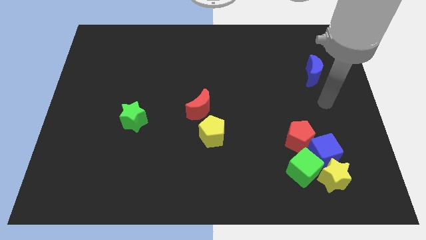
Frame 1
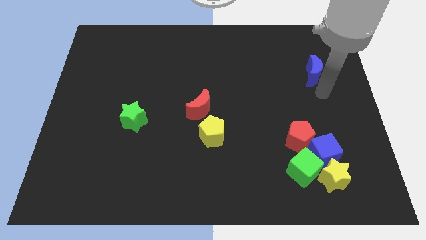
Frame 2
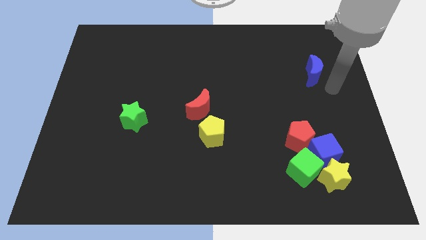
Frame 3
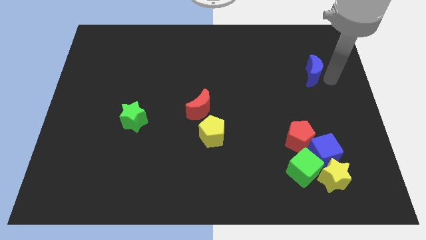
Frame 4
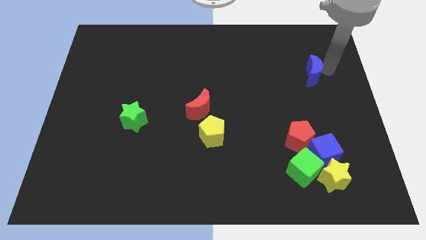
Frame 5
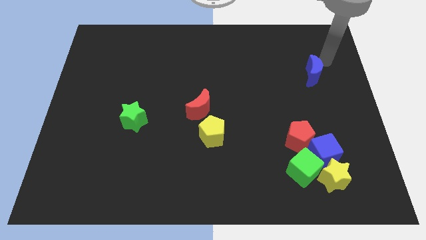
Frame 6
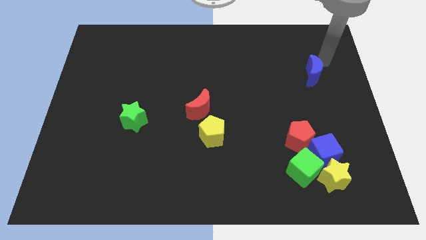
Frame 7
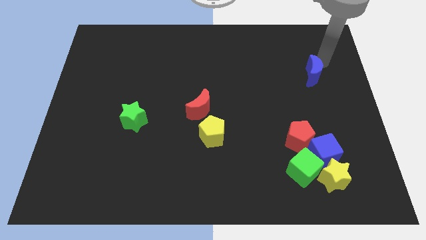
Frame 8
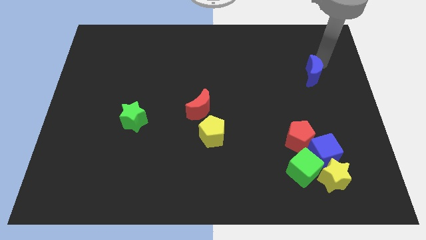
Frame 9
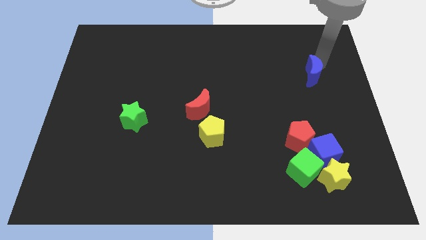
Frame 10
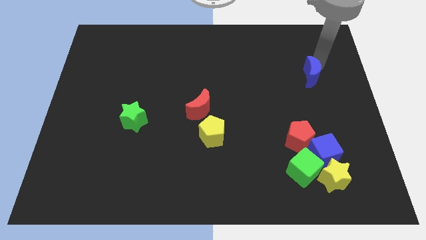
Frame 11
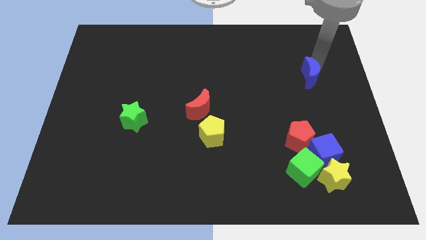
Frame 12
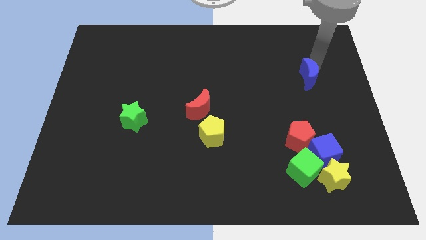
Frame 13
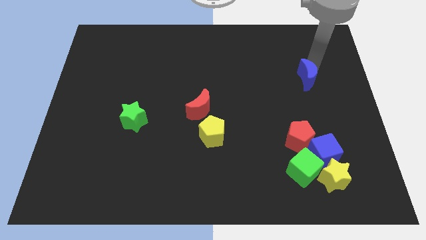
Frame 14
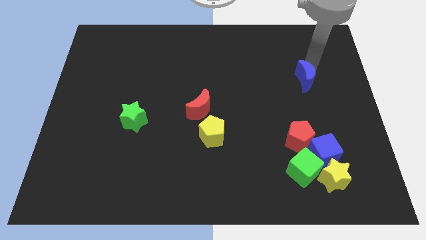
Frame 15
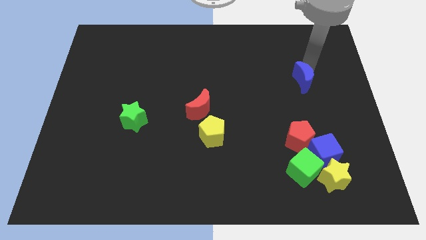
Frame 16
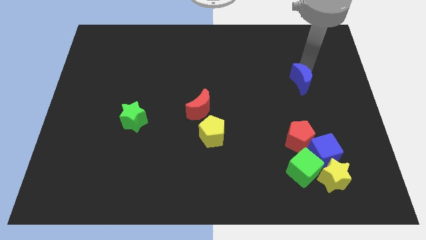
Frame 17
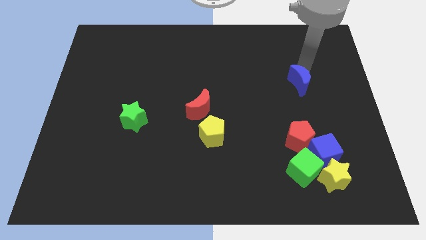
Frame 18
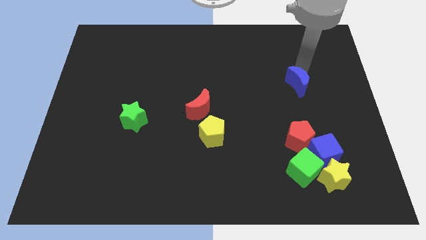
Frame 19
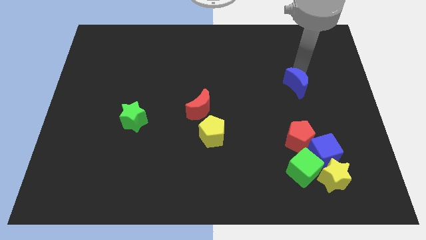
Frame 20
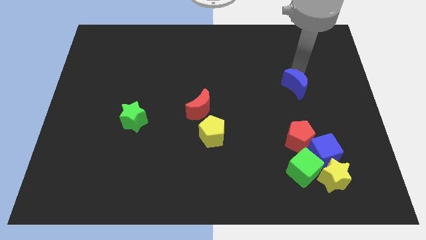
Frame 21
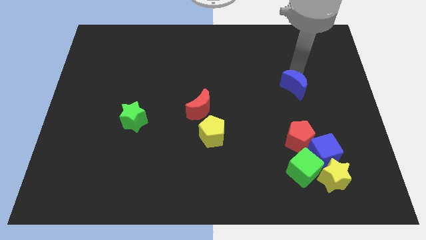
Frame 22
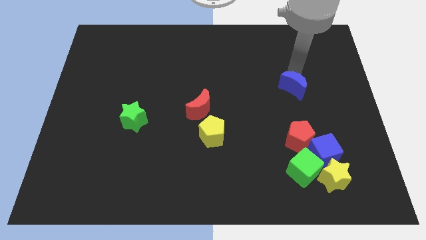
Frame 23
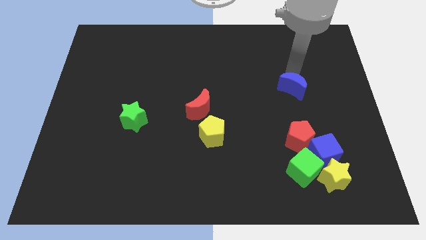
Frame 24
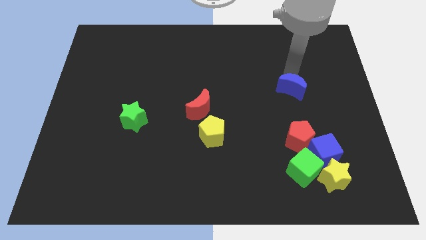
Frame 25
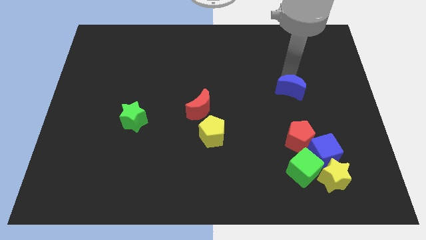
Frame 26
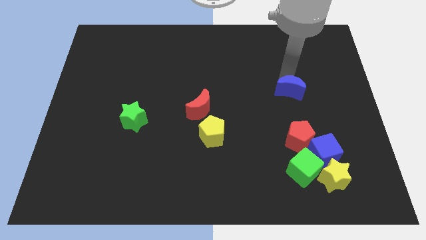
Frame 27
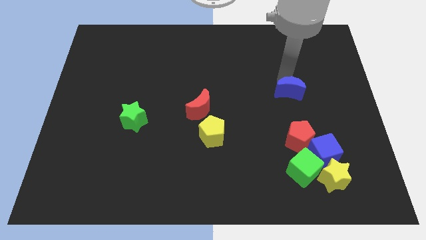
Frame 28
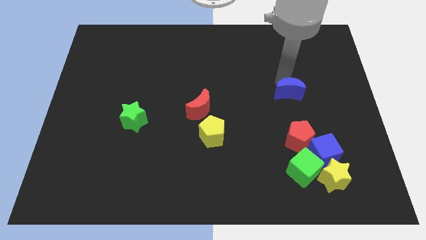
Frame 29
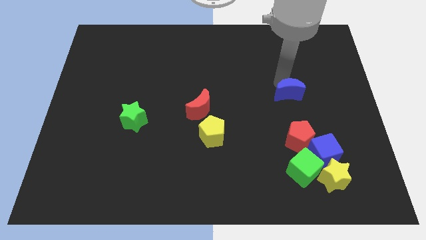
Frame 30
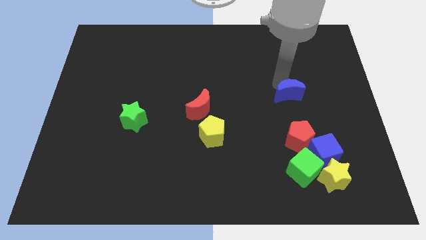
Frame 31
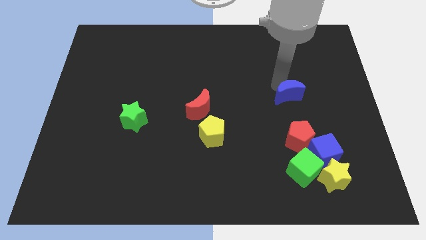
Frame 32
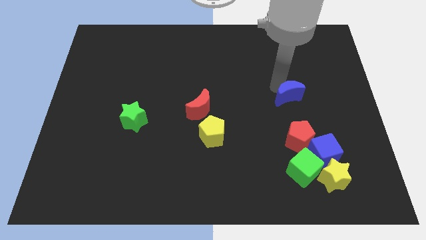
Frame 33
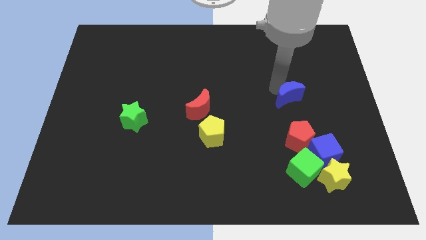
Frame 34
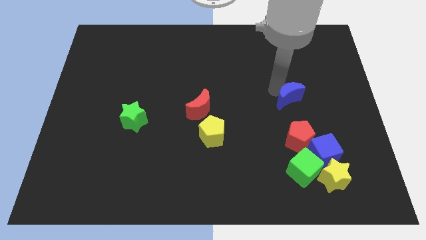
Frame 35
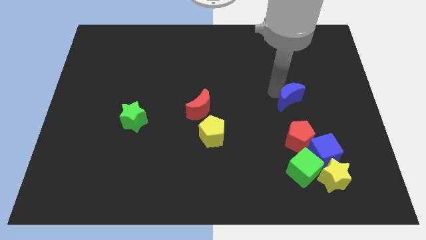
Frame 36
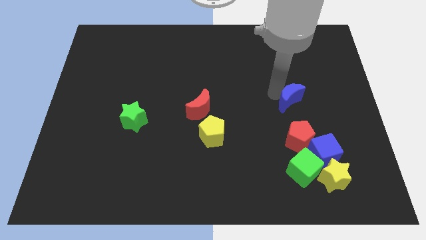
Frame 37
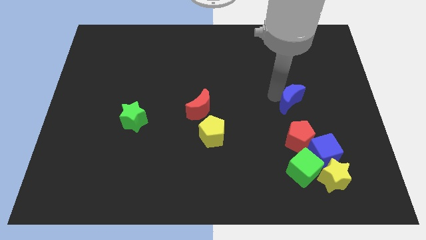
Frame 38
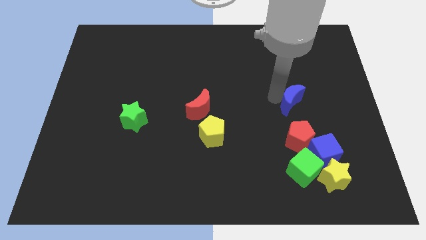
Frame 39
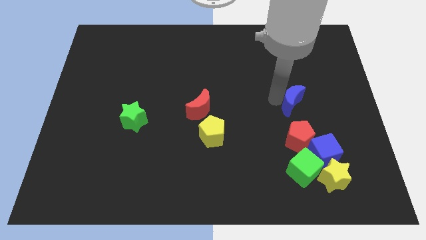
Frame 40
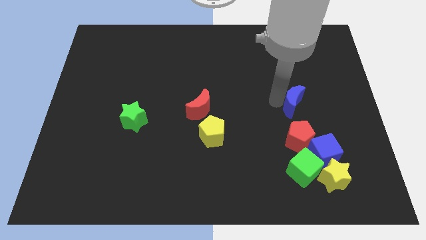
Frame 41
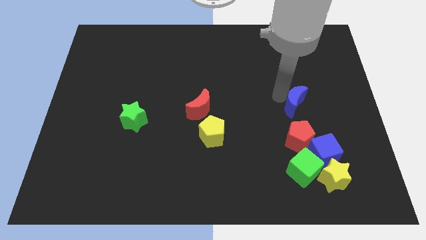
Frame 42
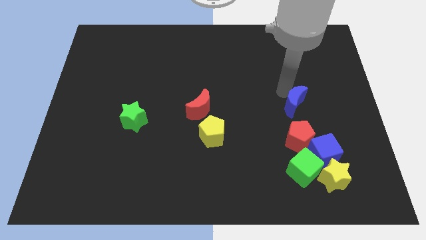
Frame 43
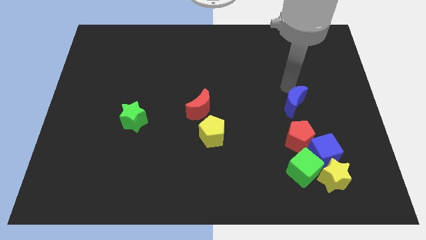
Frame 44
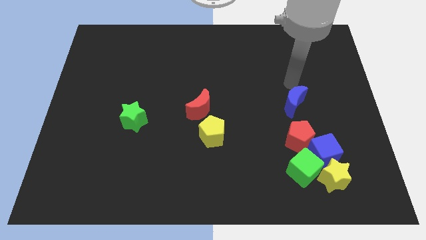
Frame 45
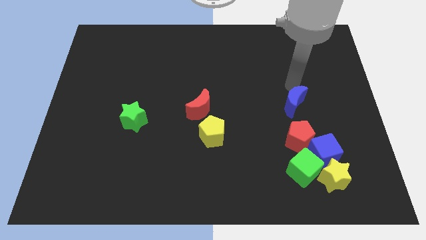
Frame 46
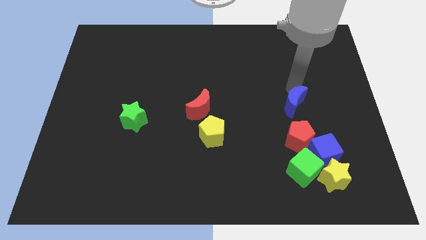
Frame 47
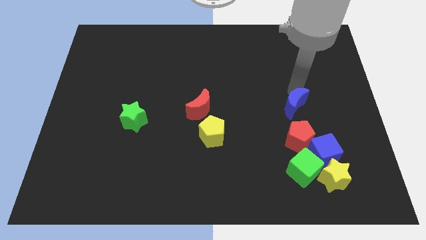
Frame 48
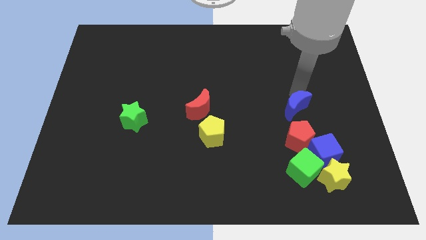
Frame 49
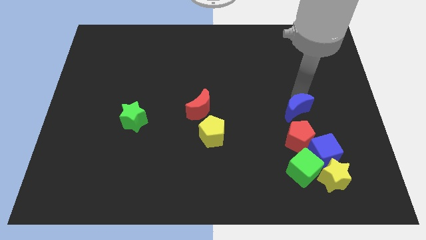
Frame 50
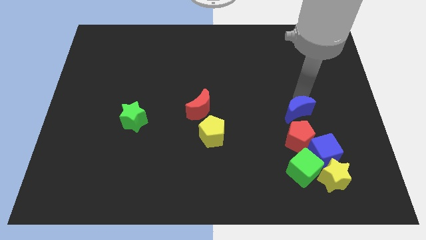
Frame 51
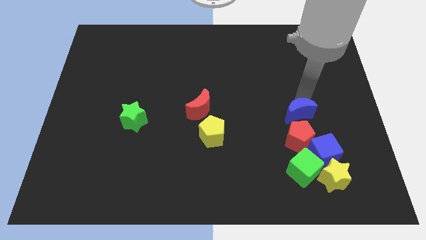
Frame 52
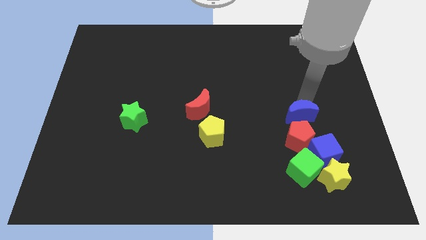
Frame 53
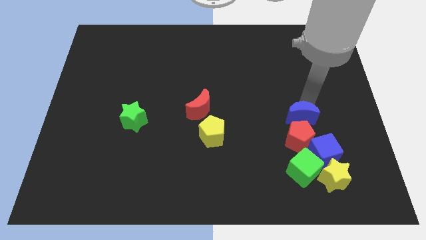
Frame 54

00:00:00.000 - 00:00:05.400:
put the blue moon to the top left side of the blue cube

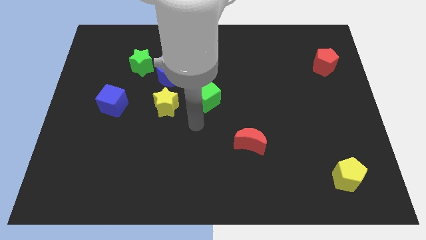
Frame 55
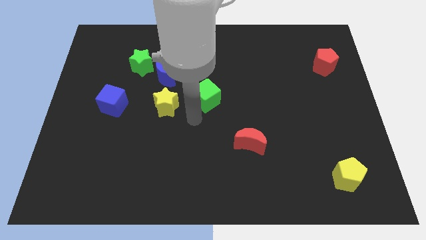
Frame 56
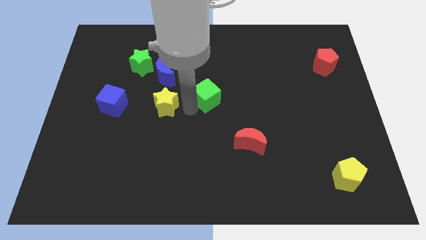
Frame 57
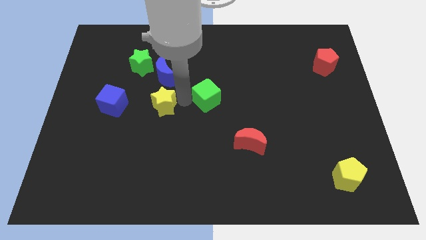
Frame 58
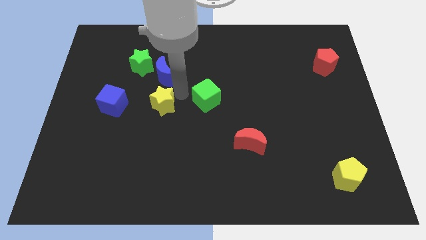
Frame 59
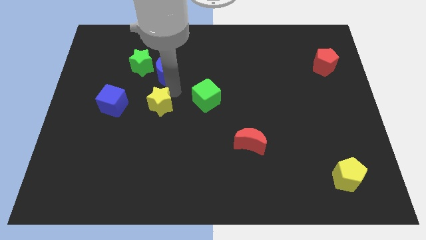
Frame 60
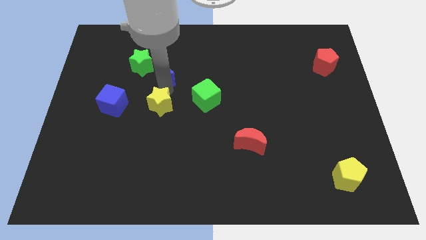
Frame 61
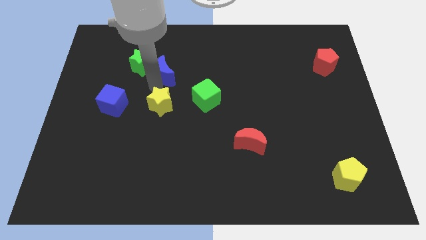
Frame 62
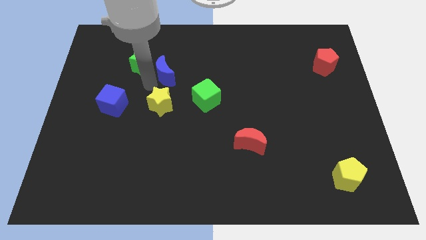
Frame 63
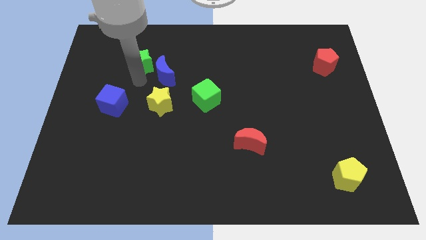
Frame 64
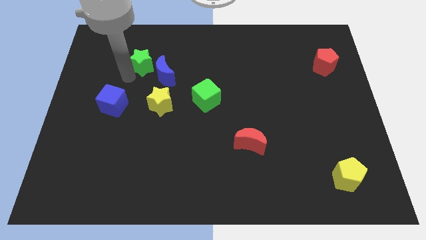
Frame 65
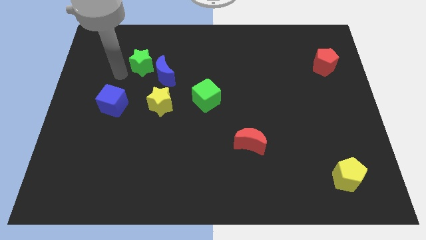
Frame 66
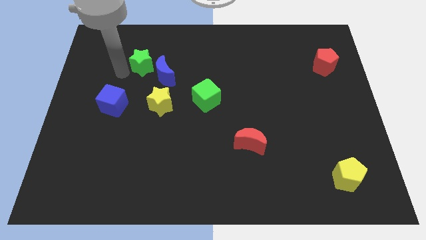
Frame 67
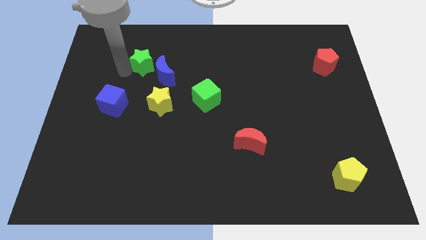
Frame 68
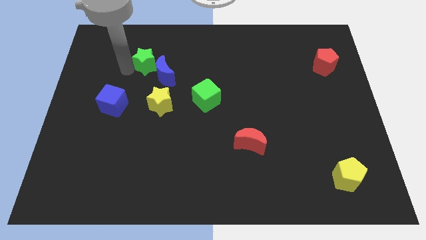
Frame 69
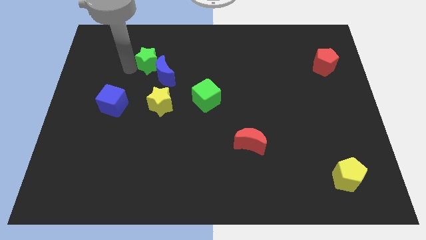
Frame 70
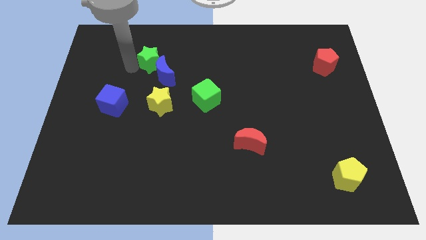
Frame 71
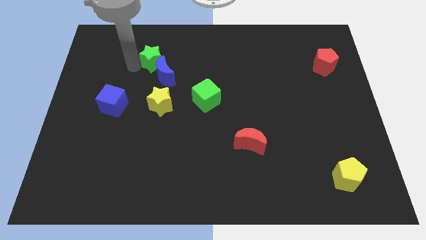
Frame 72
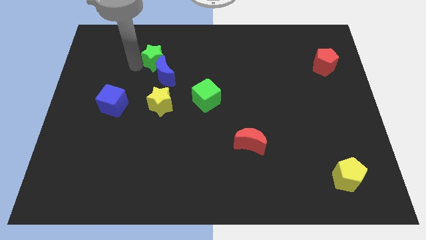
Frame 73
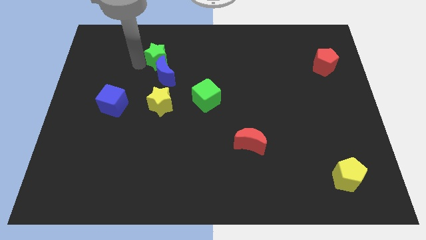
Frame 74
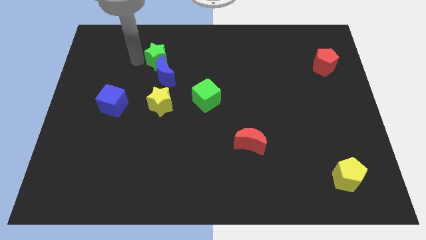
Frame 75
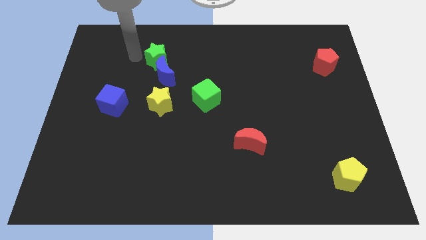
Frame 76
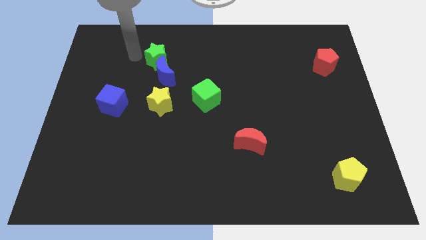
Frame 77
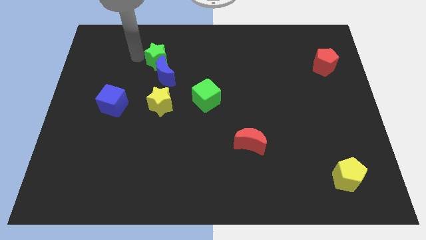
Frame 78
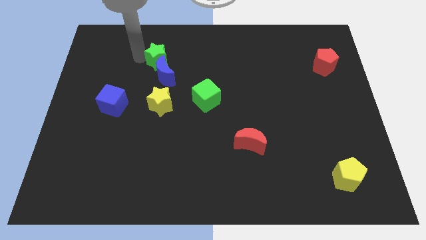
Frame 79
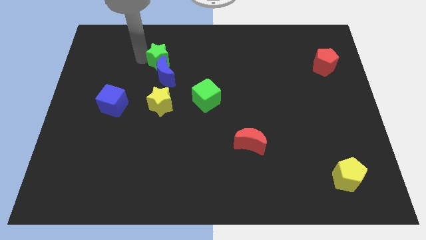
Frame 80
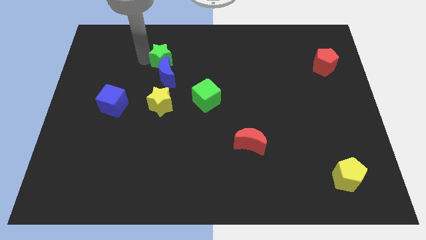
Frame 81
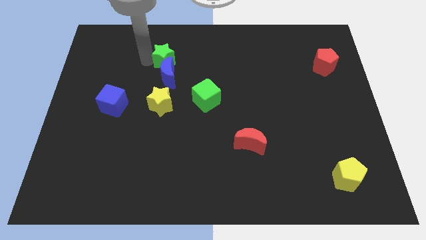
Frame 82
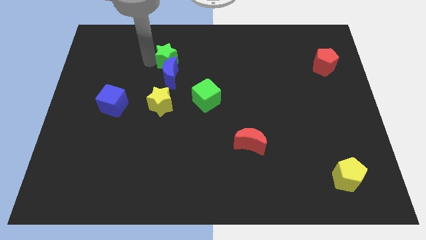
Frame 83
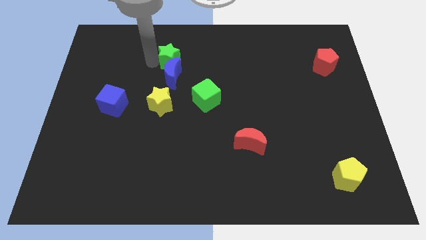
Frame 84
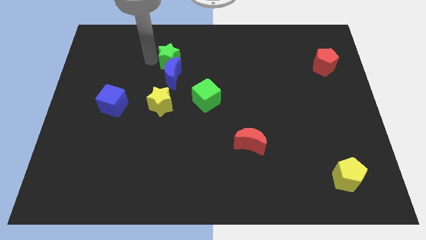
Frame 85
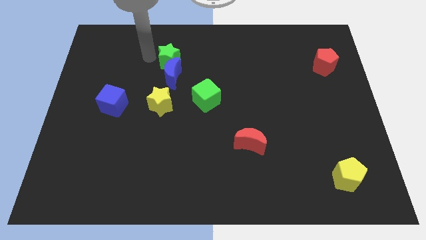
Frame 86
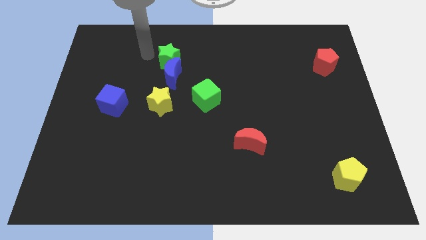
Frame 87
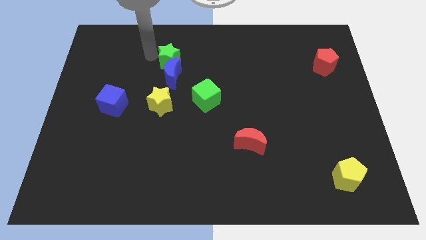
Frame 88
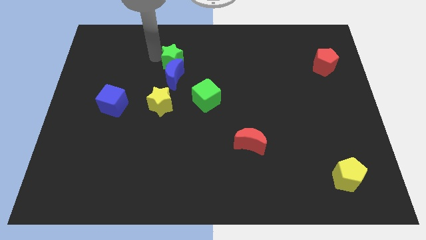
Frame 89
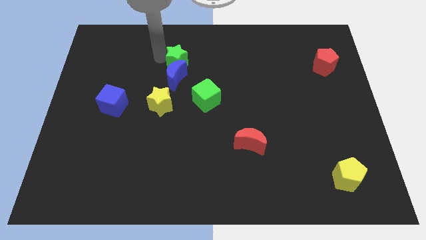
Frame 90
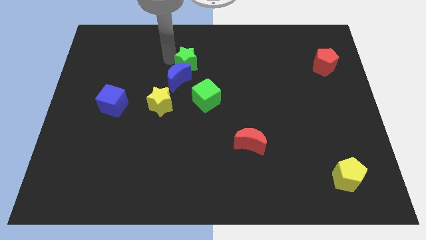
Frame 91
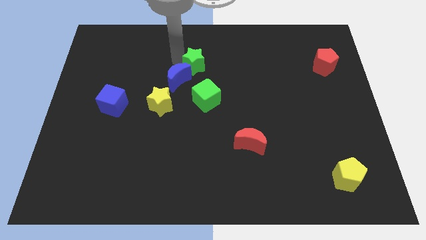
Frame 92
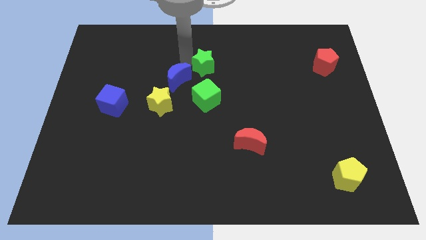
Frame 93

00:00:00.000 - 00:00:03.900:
slide the green star to the right of the blue moon
